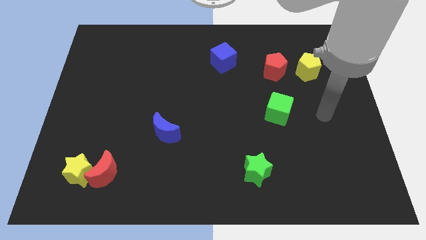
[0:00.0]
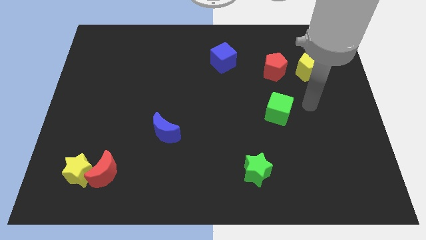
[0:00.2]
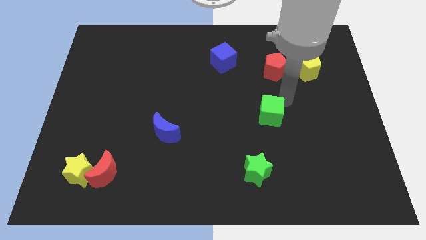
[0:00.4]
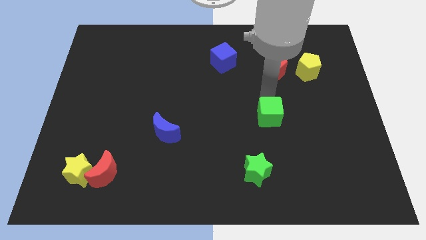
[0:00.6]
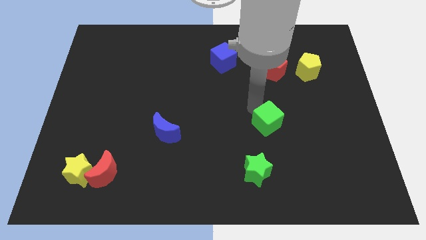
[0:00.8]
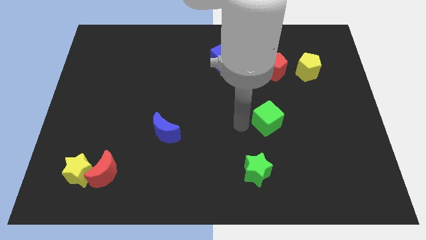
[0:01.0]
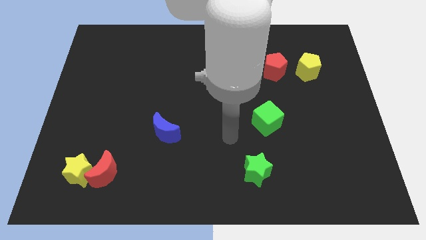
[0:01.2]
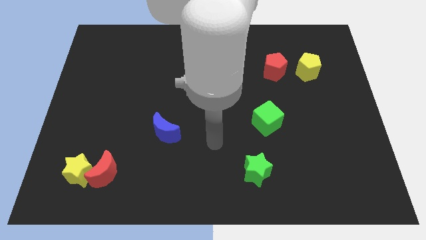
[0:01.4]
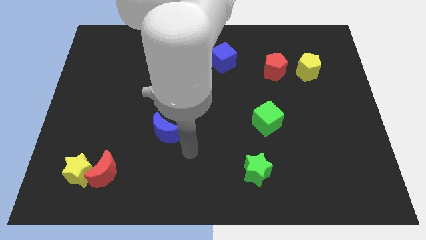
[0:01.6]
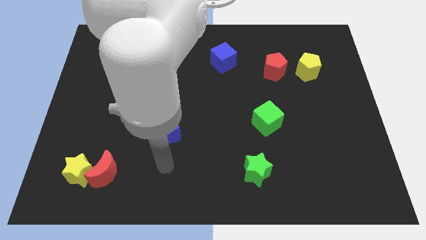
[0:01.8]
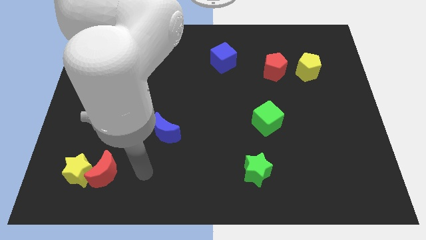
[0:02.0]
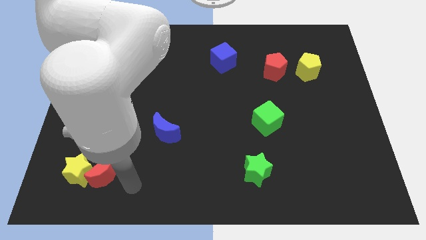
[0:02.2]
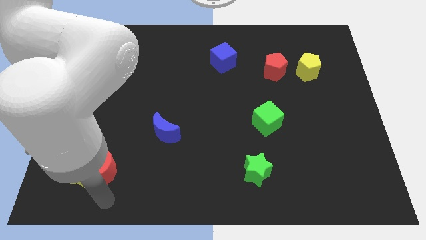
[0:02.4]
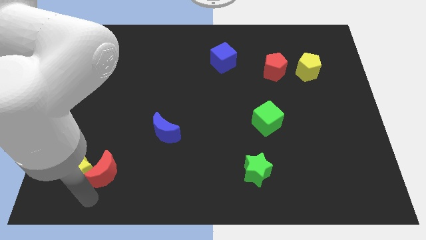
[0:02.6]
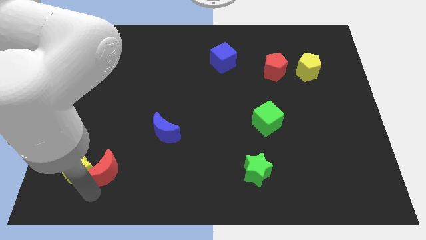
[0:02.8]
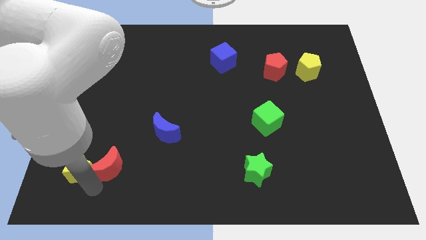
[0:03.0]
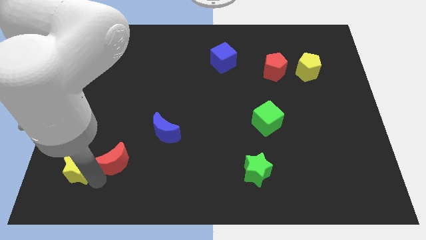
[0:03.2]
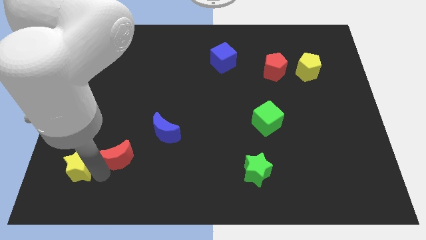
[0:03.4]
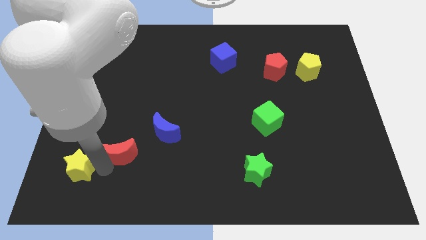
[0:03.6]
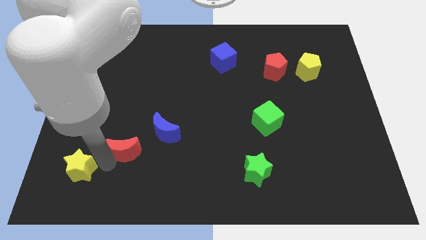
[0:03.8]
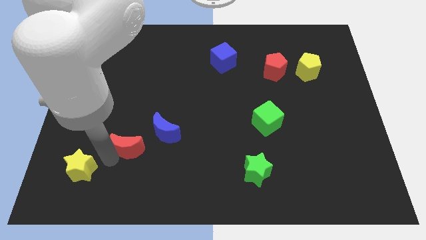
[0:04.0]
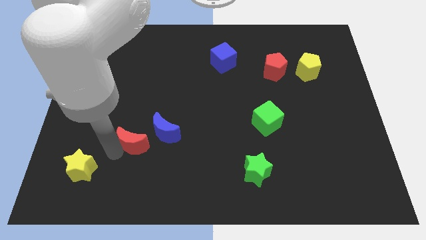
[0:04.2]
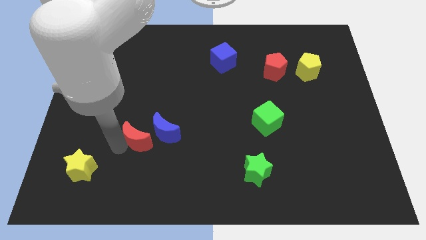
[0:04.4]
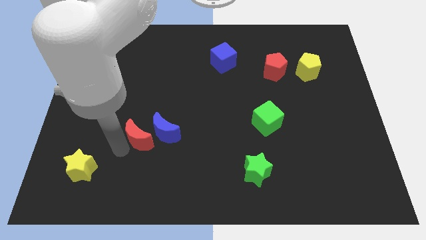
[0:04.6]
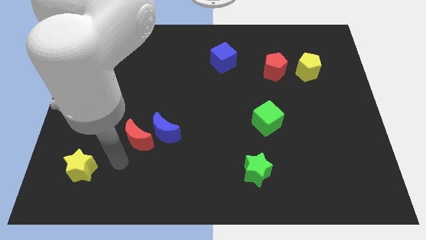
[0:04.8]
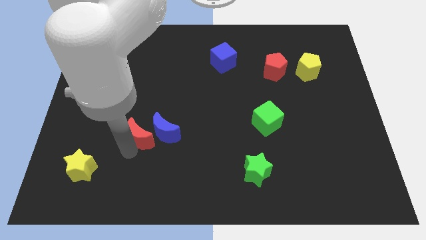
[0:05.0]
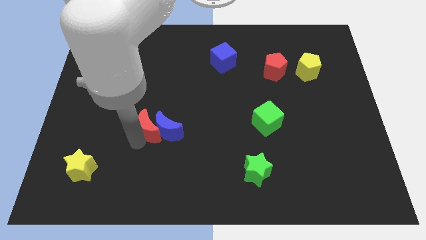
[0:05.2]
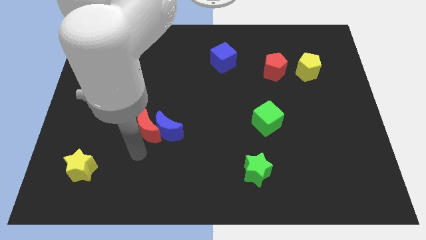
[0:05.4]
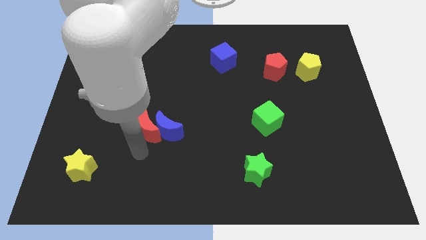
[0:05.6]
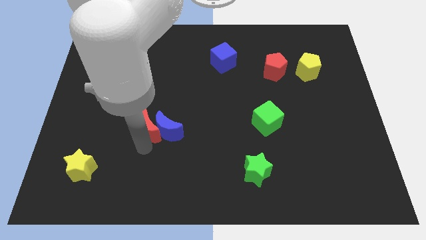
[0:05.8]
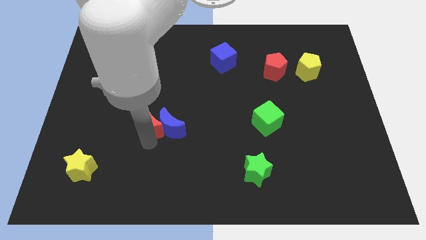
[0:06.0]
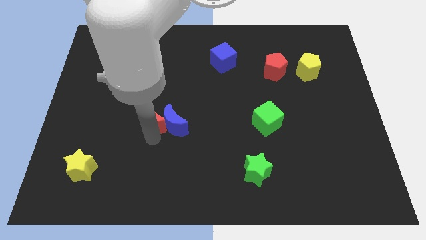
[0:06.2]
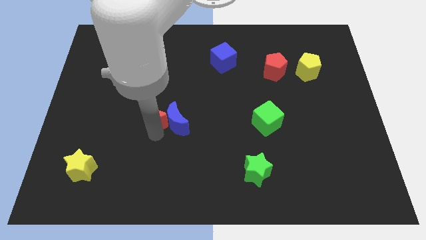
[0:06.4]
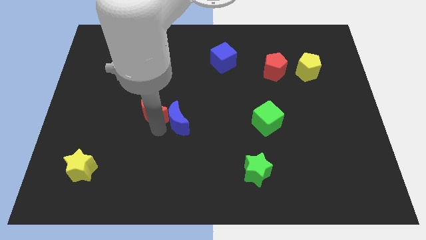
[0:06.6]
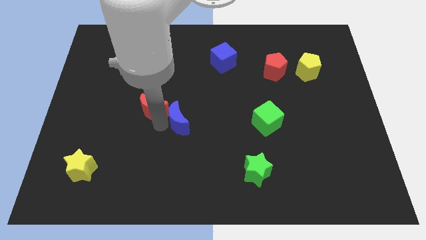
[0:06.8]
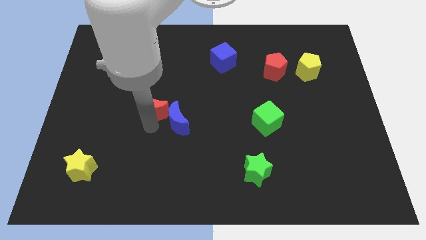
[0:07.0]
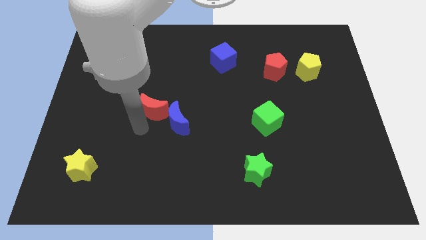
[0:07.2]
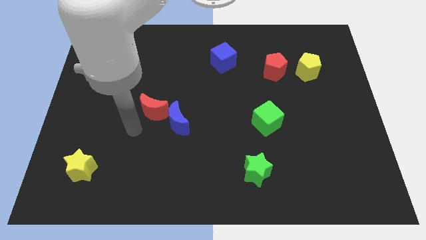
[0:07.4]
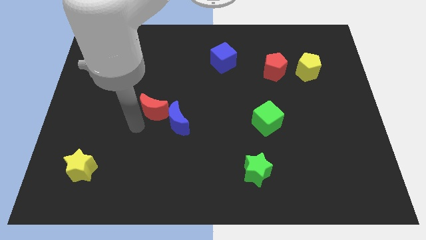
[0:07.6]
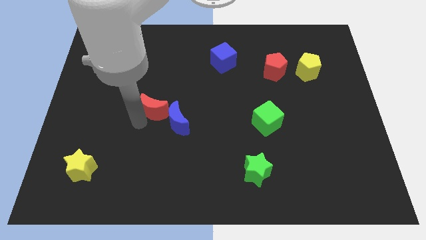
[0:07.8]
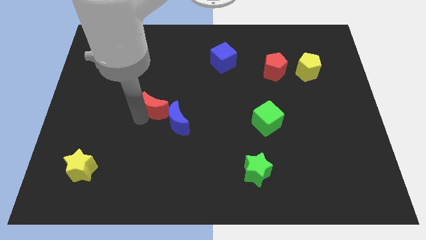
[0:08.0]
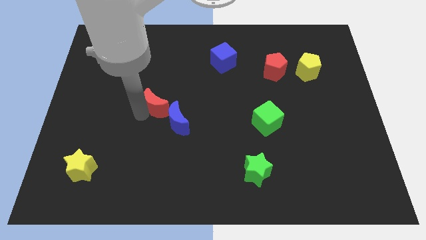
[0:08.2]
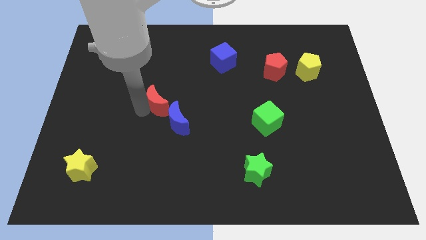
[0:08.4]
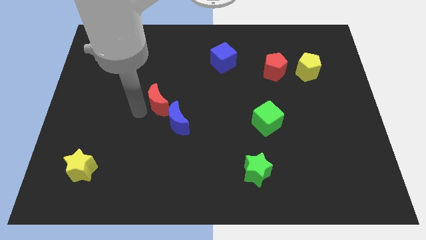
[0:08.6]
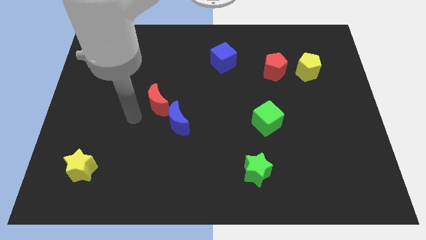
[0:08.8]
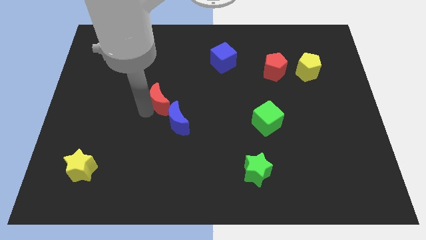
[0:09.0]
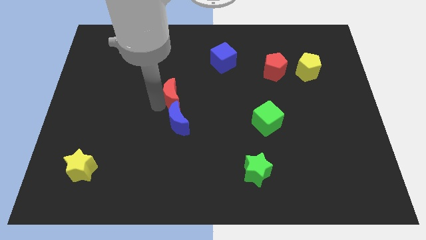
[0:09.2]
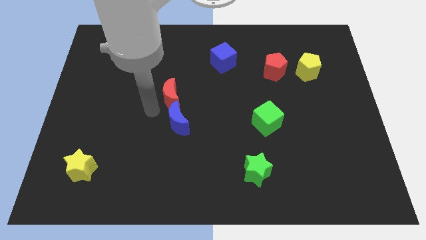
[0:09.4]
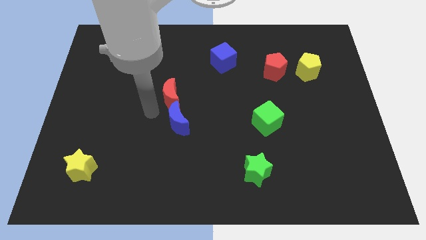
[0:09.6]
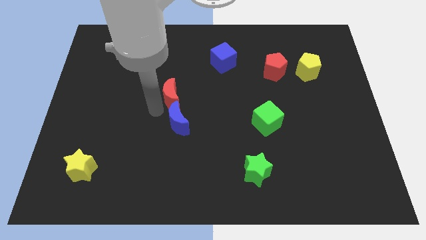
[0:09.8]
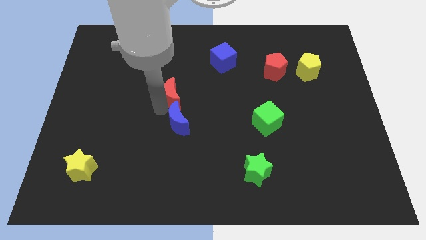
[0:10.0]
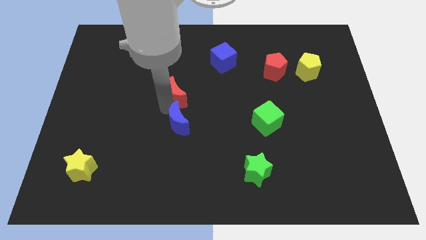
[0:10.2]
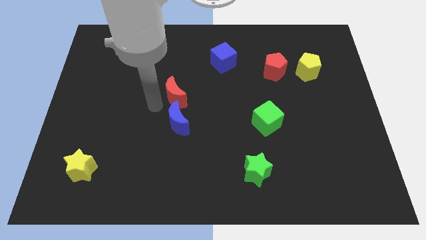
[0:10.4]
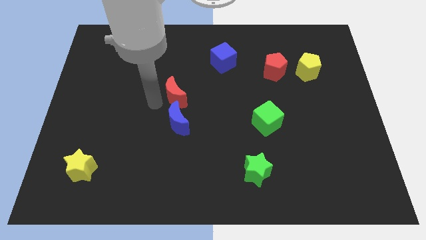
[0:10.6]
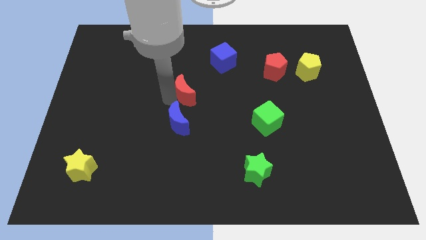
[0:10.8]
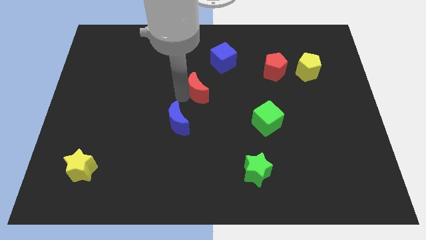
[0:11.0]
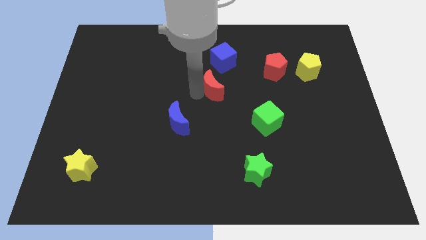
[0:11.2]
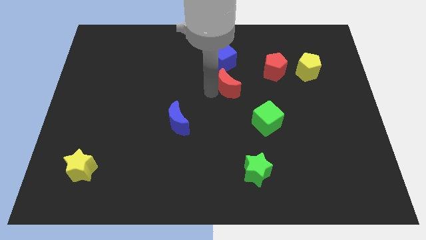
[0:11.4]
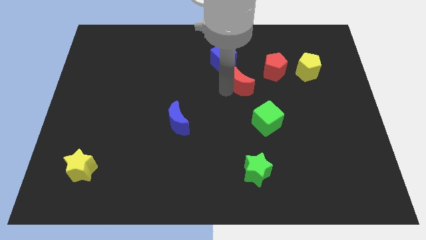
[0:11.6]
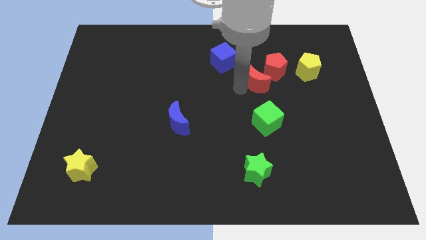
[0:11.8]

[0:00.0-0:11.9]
push the red moon to the left side of the yellow pentagon
